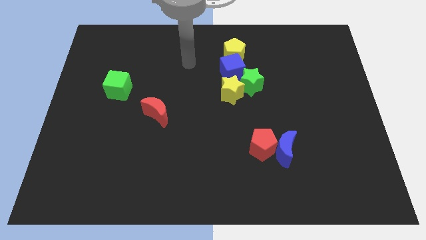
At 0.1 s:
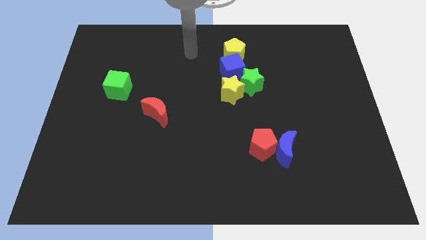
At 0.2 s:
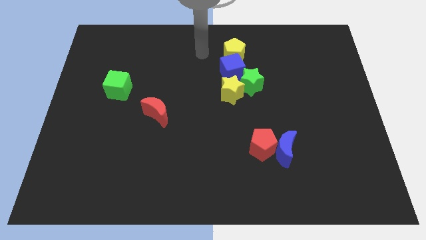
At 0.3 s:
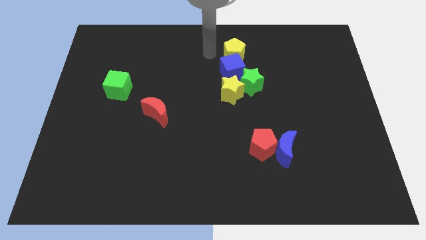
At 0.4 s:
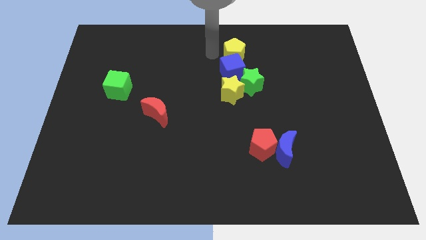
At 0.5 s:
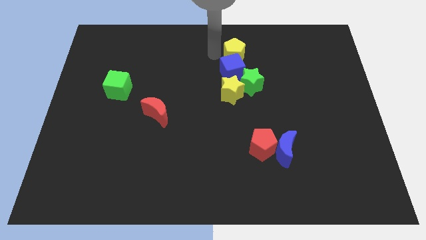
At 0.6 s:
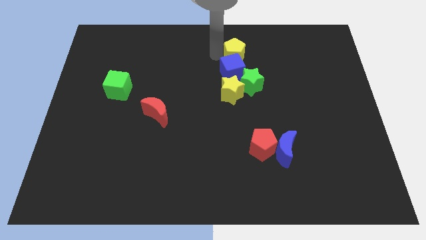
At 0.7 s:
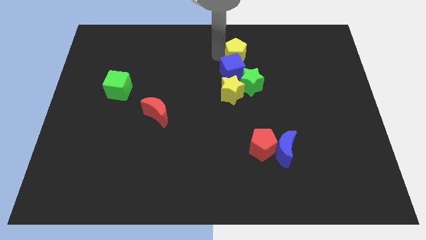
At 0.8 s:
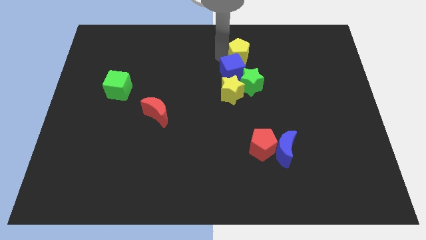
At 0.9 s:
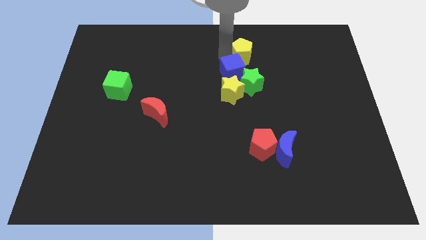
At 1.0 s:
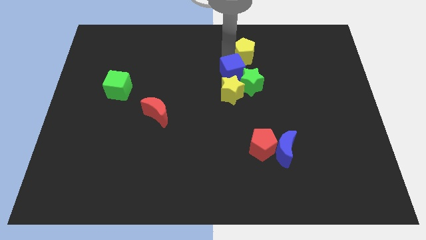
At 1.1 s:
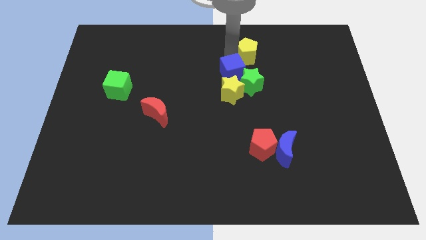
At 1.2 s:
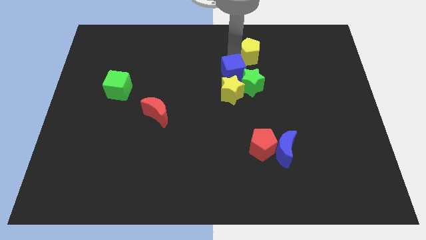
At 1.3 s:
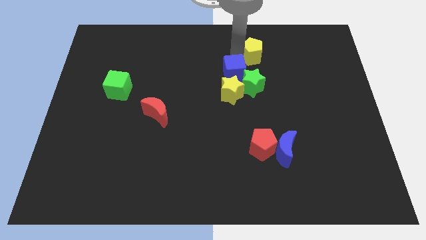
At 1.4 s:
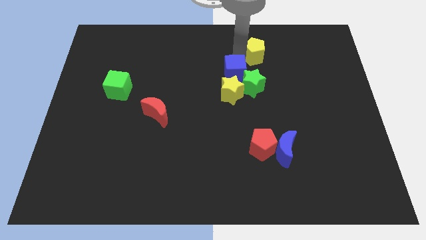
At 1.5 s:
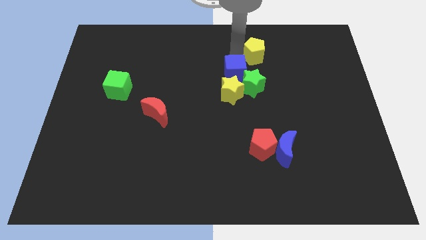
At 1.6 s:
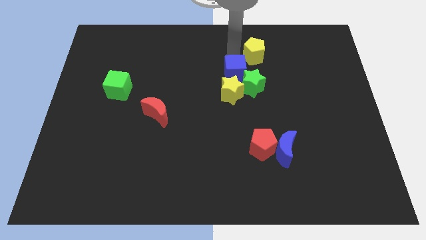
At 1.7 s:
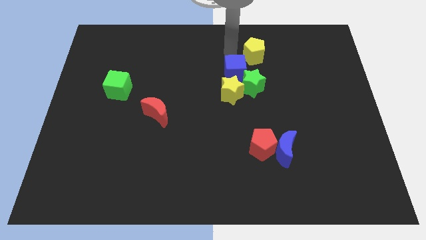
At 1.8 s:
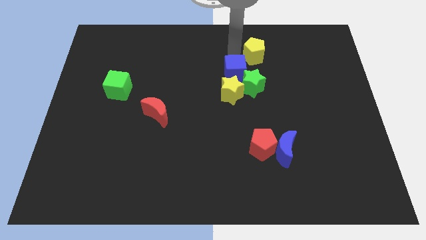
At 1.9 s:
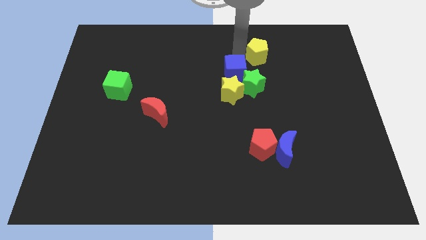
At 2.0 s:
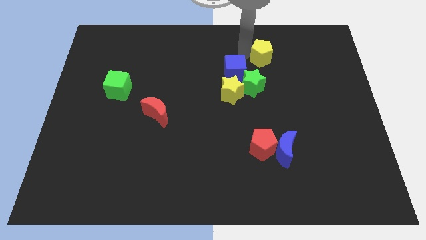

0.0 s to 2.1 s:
slightly push the yellow pentagon to the right

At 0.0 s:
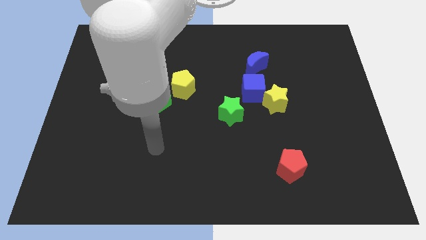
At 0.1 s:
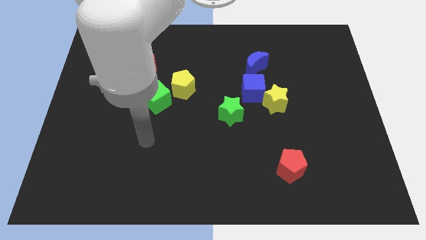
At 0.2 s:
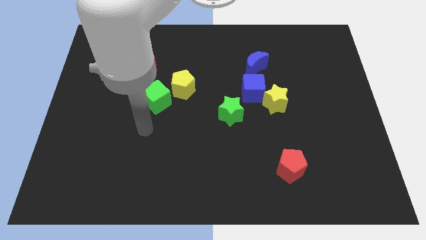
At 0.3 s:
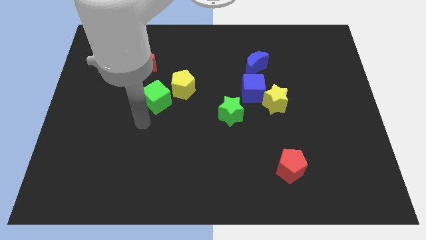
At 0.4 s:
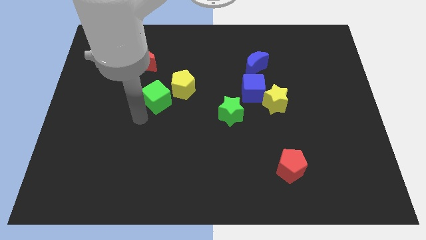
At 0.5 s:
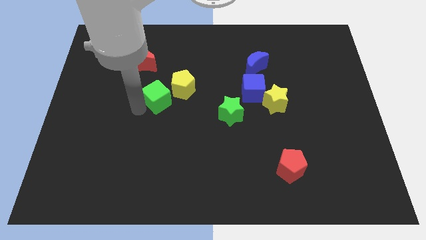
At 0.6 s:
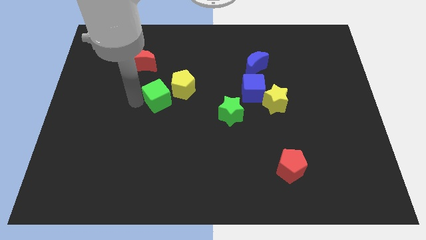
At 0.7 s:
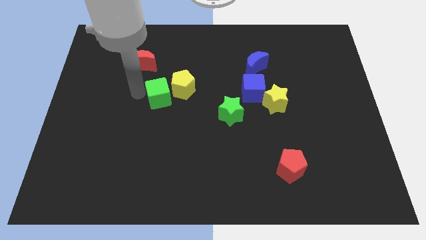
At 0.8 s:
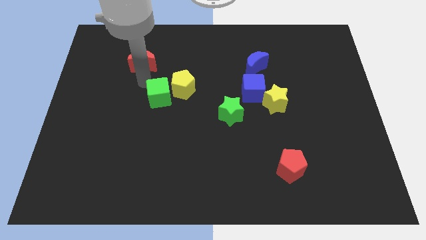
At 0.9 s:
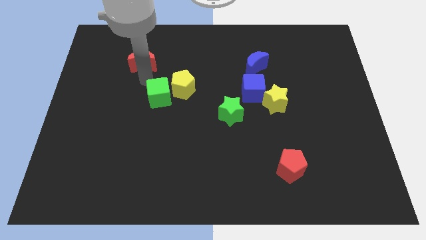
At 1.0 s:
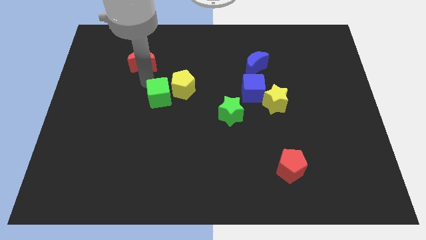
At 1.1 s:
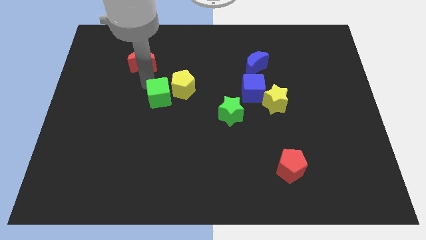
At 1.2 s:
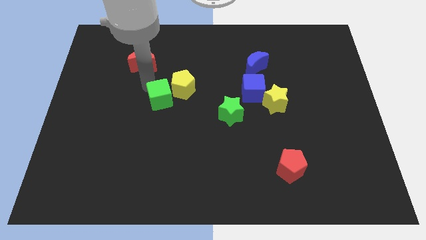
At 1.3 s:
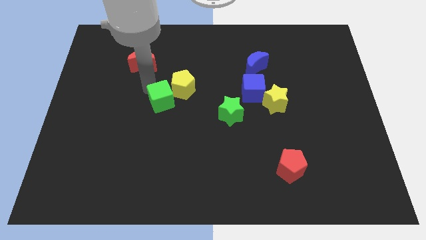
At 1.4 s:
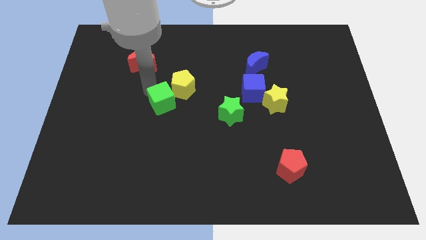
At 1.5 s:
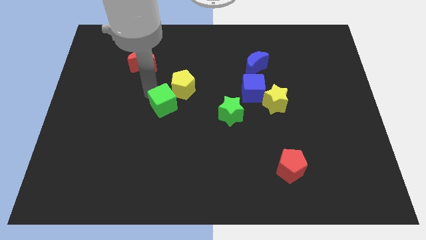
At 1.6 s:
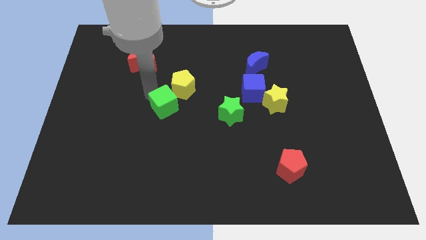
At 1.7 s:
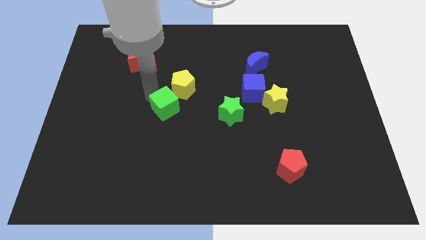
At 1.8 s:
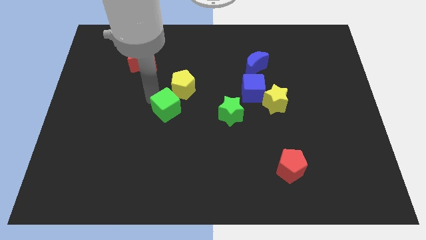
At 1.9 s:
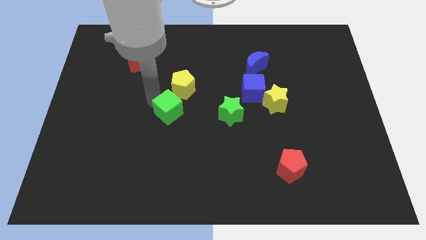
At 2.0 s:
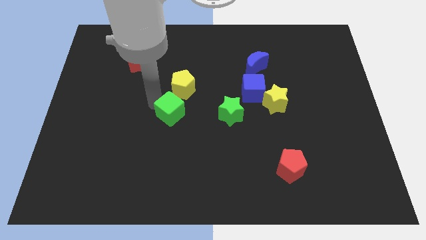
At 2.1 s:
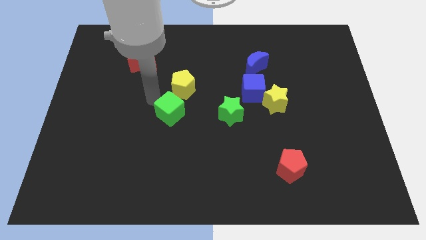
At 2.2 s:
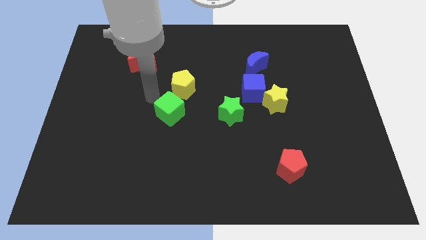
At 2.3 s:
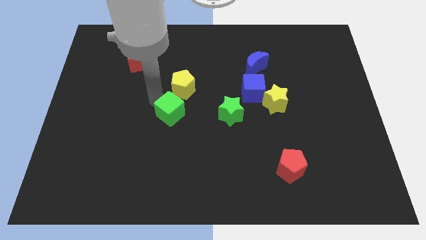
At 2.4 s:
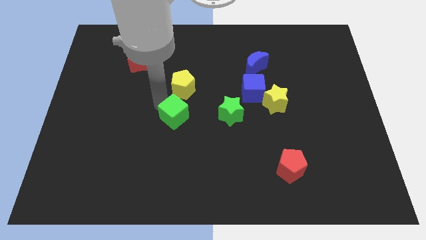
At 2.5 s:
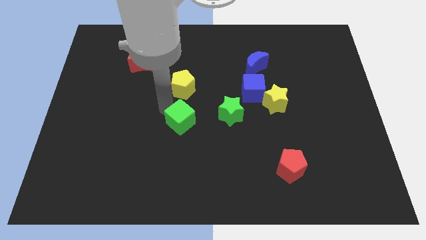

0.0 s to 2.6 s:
slide the green cube diagonally down and to the right a little bit

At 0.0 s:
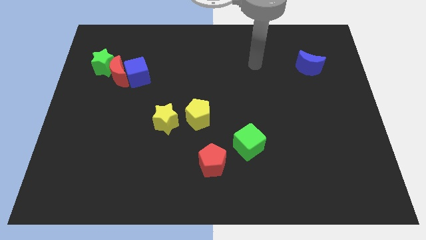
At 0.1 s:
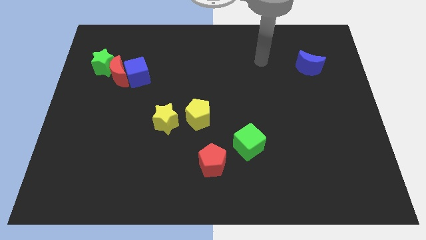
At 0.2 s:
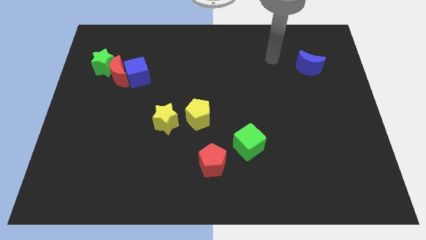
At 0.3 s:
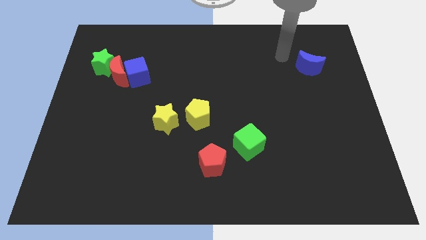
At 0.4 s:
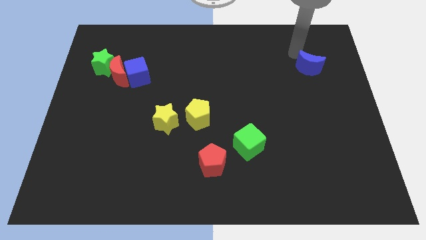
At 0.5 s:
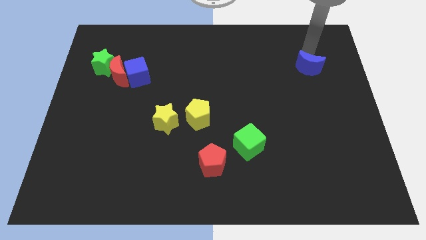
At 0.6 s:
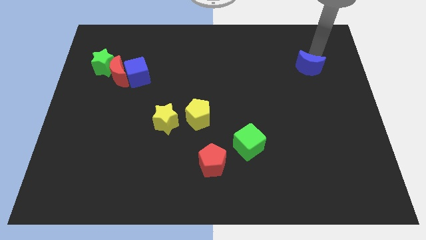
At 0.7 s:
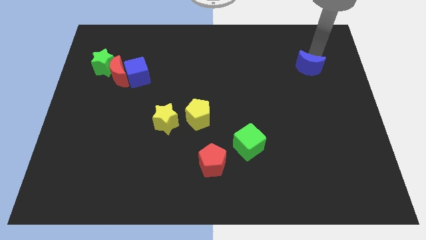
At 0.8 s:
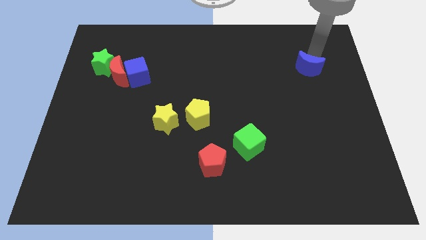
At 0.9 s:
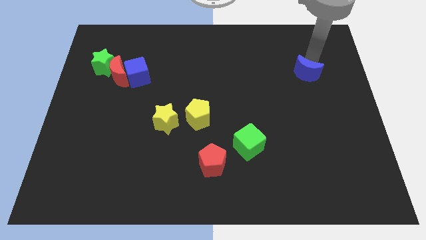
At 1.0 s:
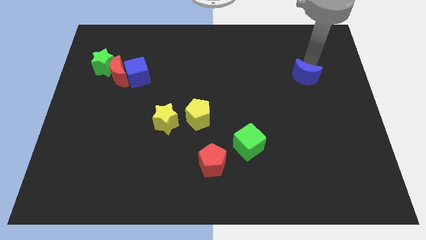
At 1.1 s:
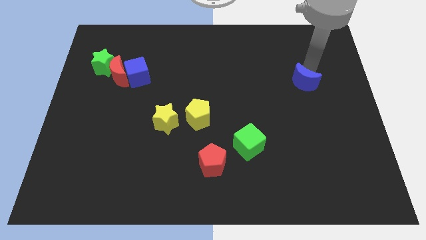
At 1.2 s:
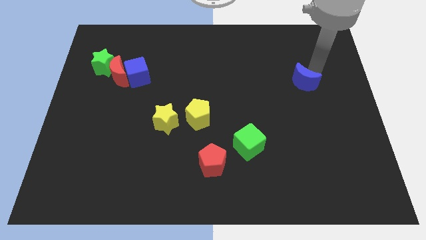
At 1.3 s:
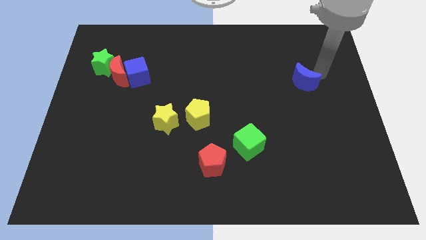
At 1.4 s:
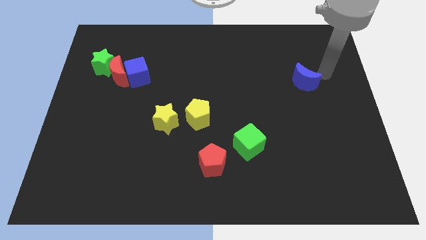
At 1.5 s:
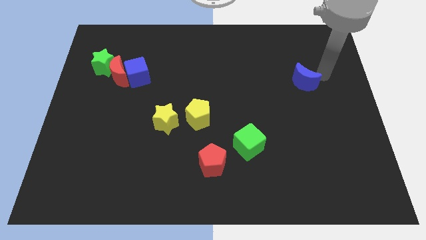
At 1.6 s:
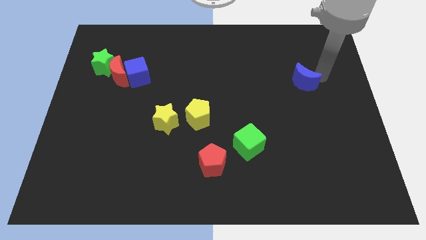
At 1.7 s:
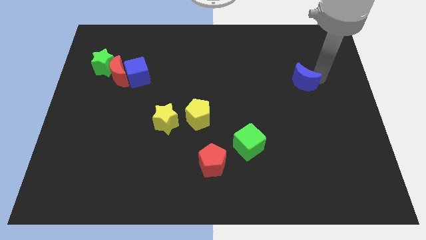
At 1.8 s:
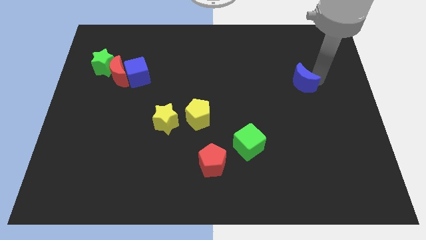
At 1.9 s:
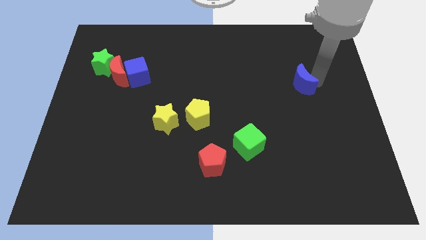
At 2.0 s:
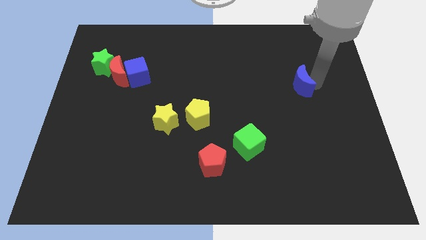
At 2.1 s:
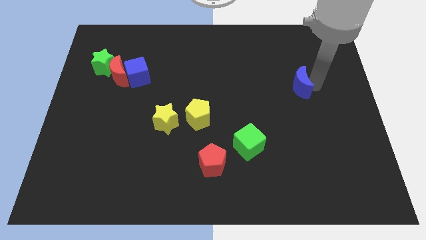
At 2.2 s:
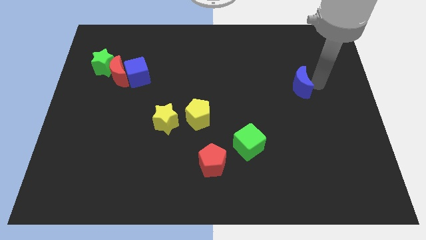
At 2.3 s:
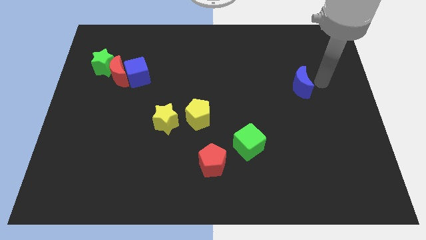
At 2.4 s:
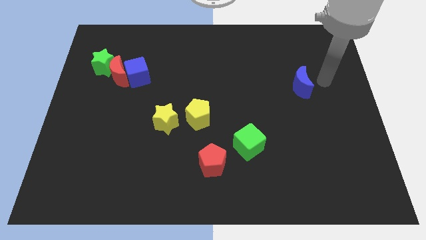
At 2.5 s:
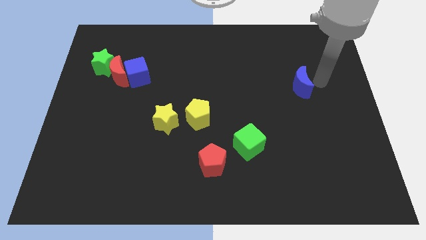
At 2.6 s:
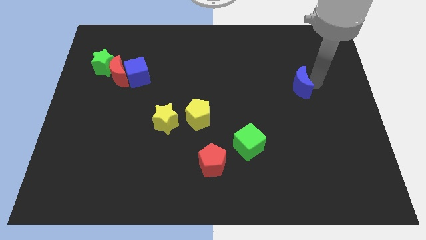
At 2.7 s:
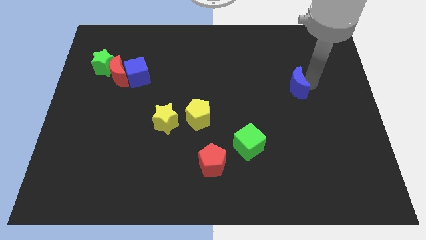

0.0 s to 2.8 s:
move the blue moon down and then to the left a bit

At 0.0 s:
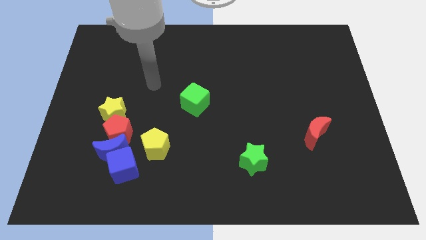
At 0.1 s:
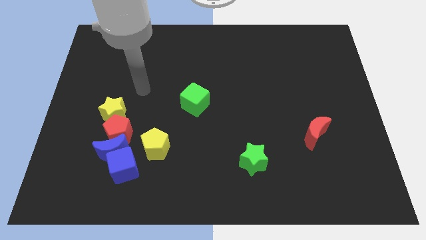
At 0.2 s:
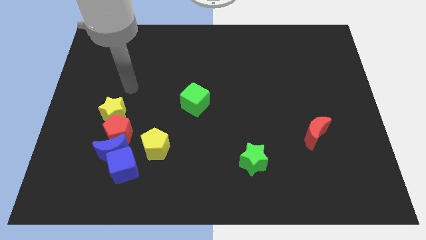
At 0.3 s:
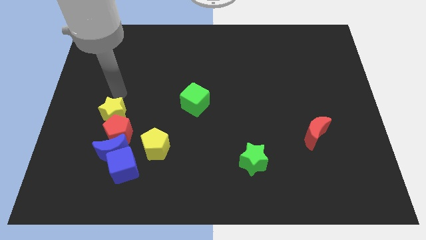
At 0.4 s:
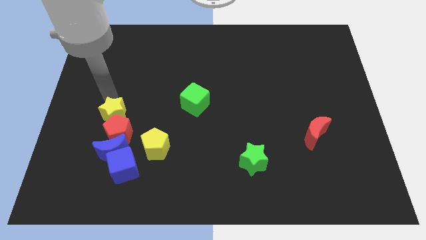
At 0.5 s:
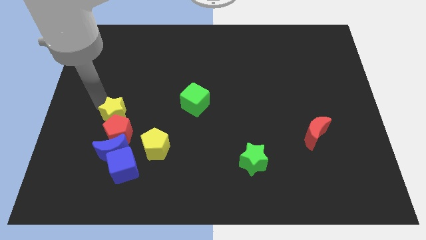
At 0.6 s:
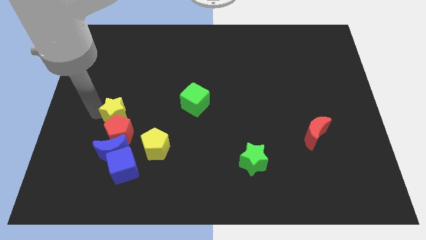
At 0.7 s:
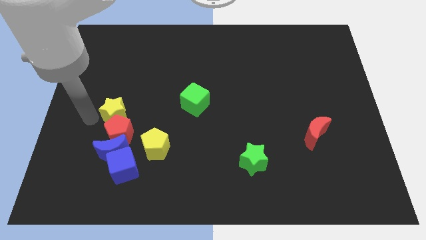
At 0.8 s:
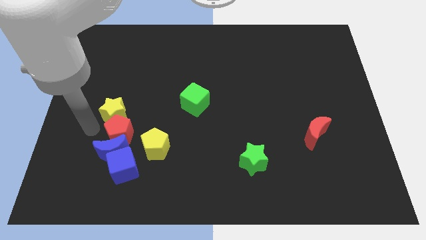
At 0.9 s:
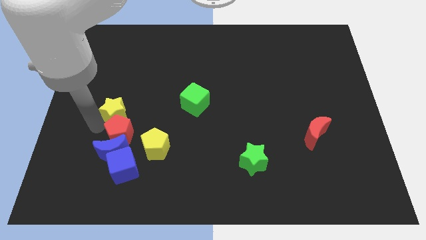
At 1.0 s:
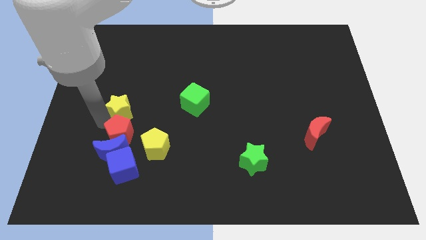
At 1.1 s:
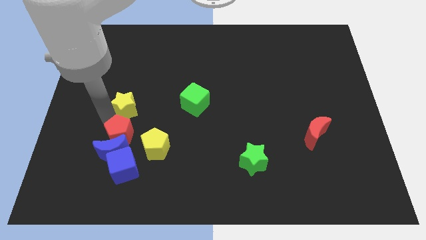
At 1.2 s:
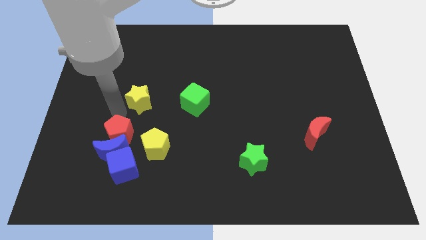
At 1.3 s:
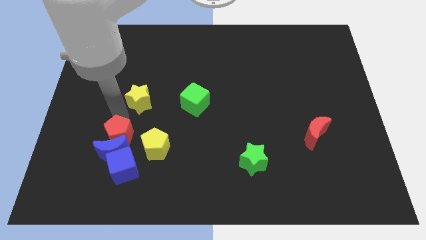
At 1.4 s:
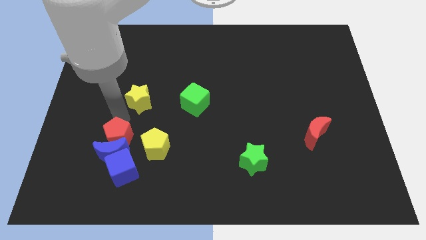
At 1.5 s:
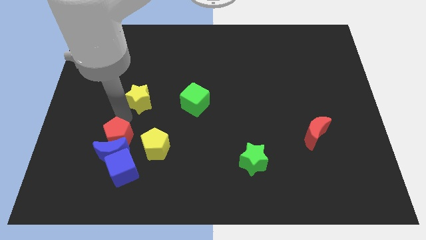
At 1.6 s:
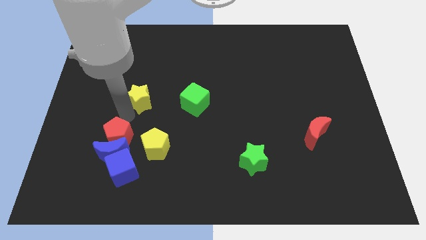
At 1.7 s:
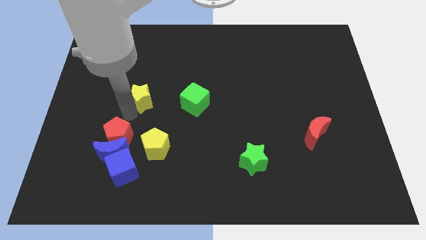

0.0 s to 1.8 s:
move the yellow star diagonally upwards and to the right a bit
